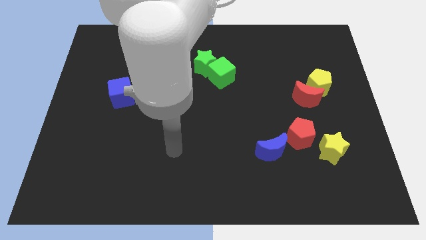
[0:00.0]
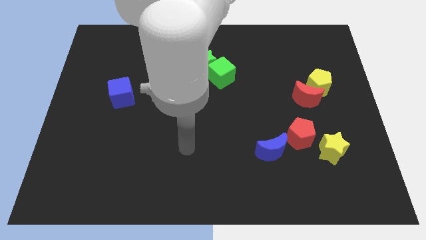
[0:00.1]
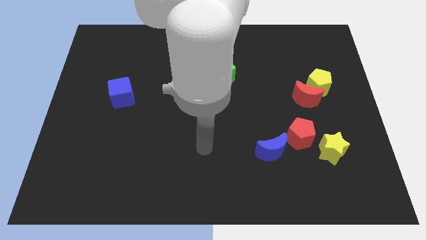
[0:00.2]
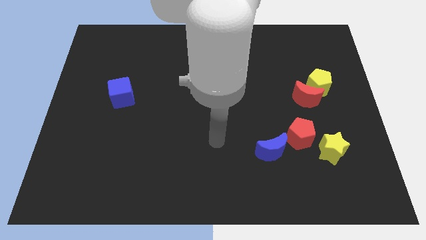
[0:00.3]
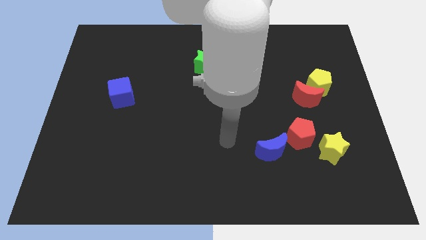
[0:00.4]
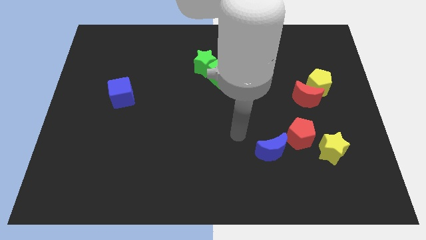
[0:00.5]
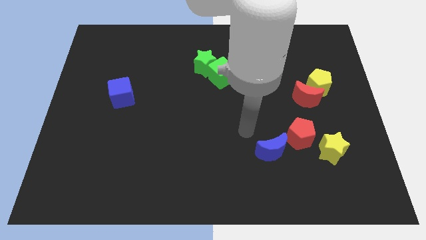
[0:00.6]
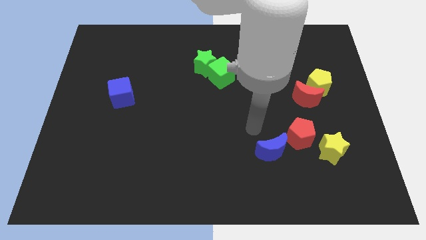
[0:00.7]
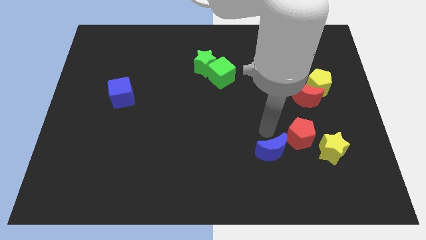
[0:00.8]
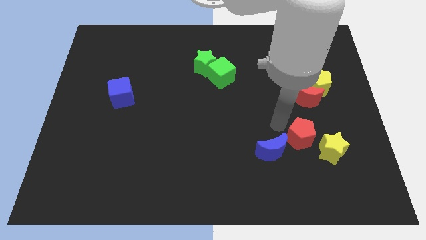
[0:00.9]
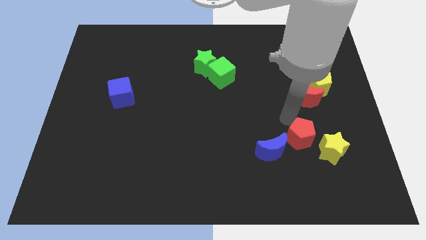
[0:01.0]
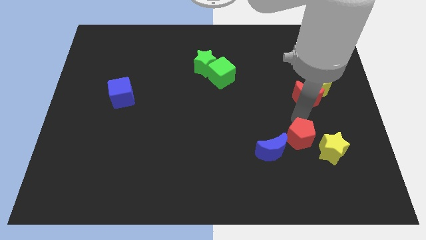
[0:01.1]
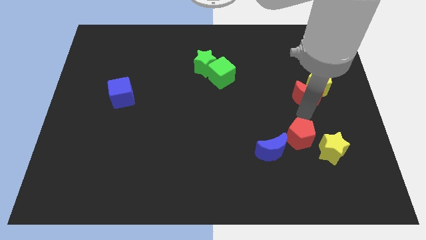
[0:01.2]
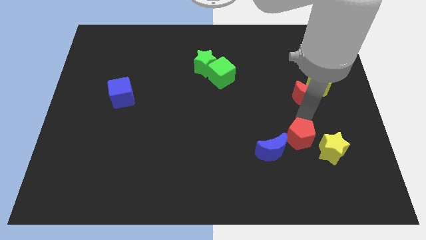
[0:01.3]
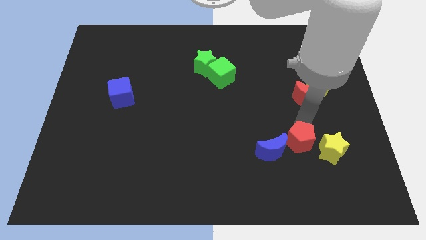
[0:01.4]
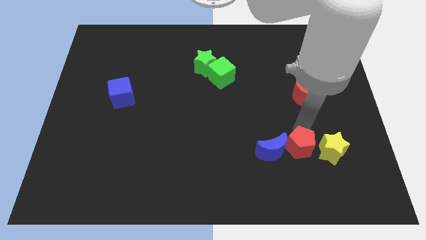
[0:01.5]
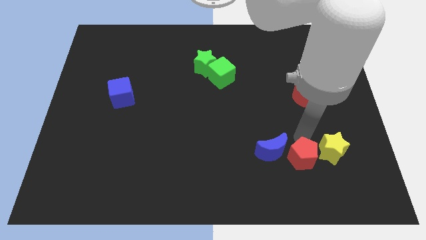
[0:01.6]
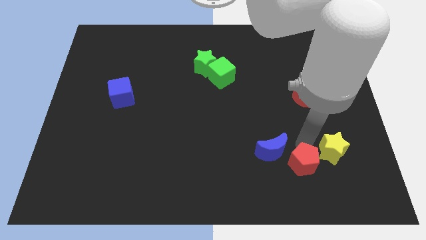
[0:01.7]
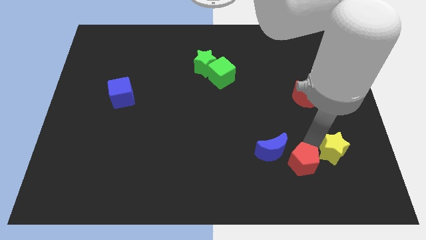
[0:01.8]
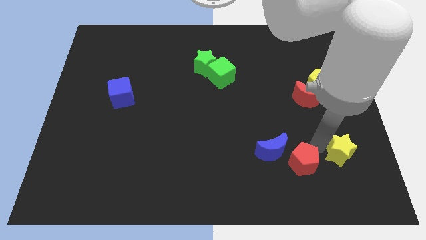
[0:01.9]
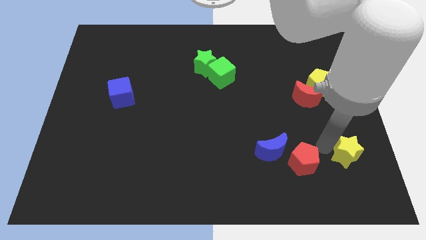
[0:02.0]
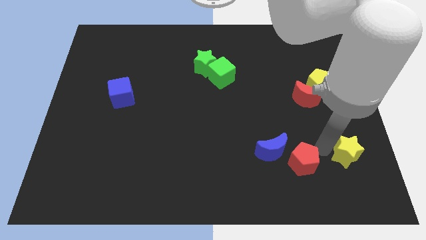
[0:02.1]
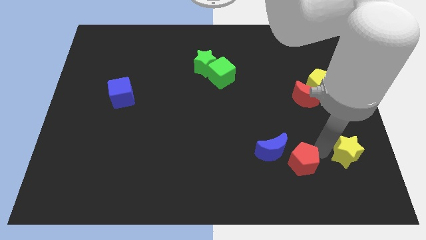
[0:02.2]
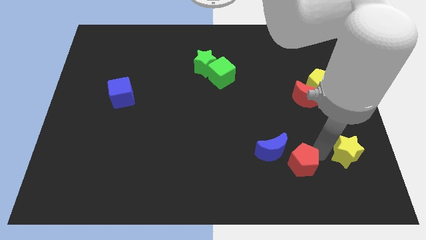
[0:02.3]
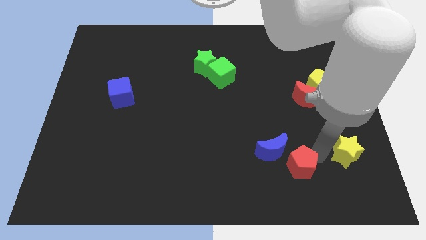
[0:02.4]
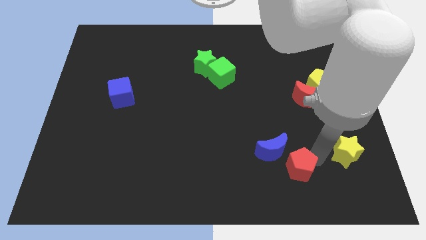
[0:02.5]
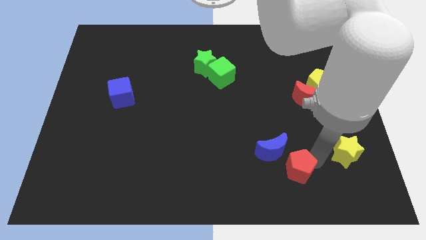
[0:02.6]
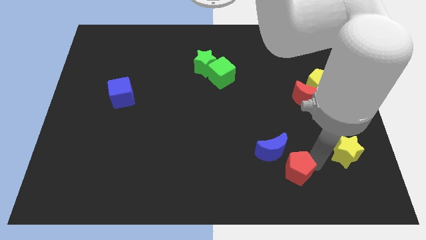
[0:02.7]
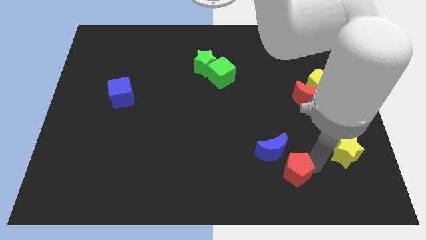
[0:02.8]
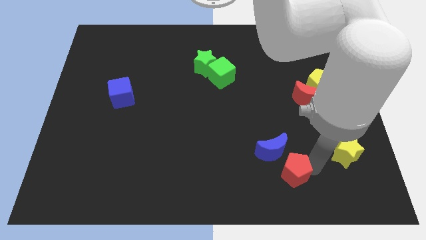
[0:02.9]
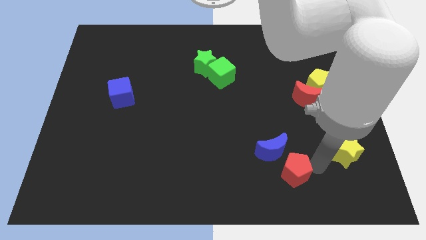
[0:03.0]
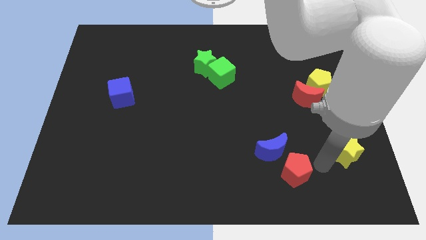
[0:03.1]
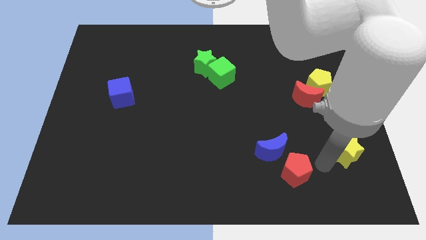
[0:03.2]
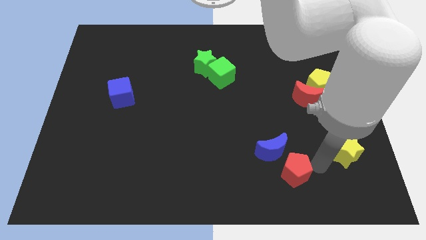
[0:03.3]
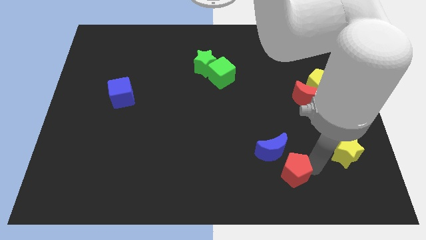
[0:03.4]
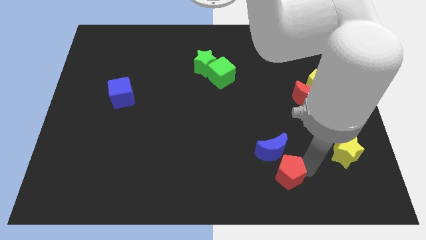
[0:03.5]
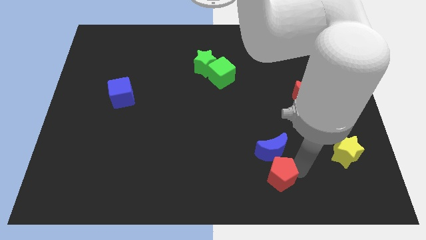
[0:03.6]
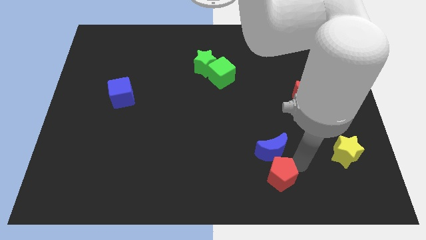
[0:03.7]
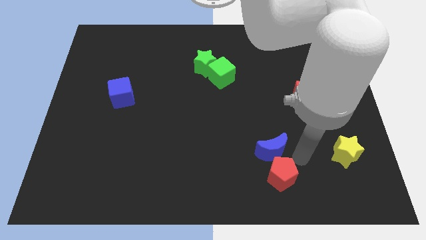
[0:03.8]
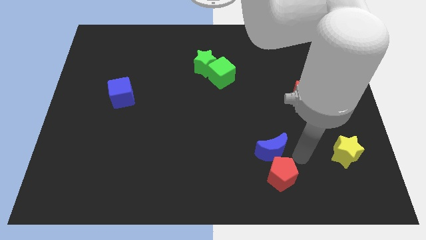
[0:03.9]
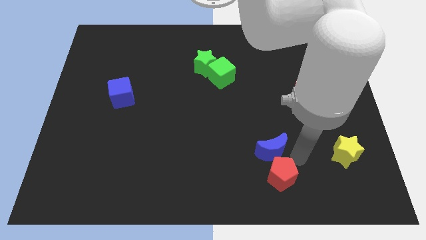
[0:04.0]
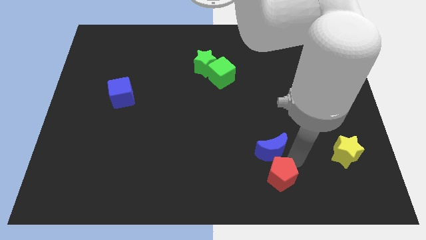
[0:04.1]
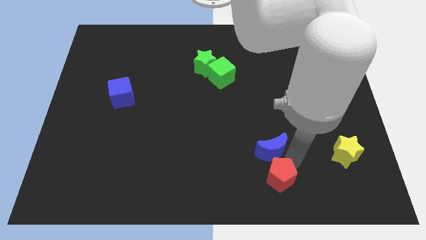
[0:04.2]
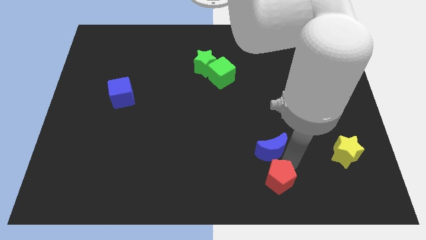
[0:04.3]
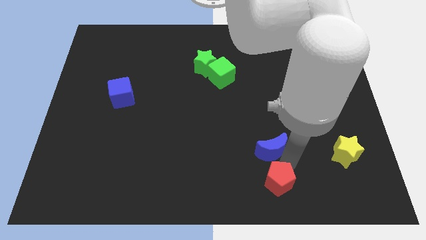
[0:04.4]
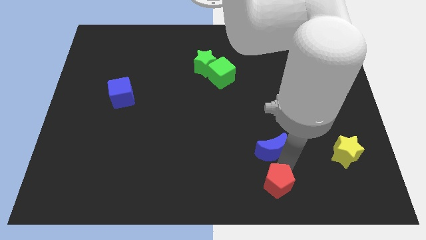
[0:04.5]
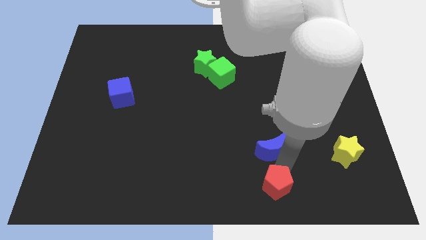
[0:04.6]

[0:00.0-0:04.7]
slide the red pentagon to the bottom

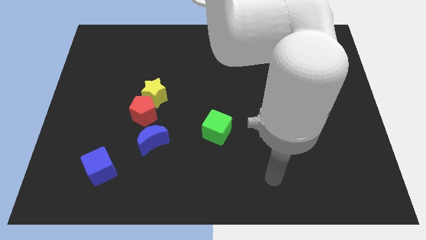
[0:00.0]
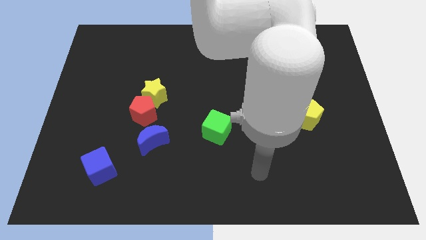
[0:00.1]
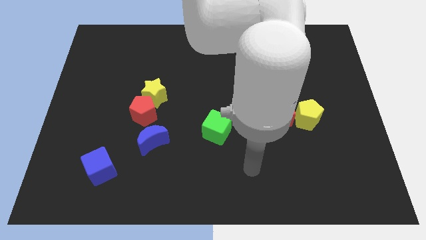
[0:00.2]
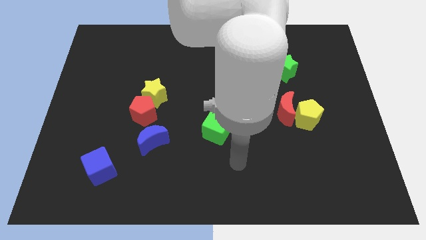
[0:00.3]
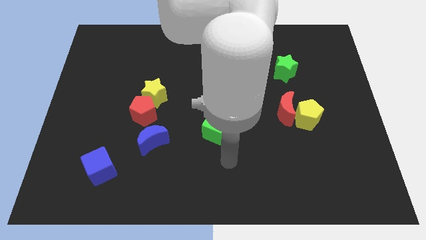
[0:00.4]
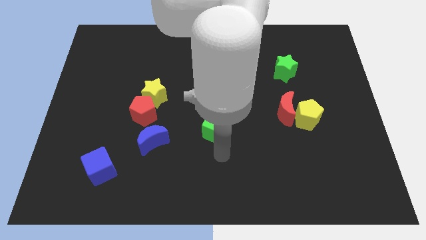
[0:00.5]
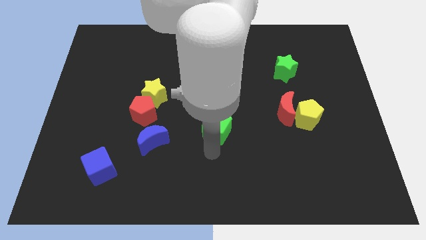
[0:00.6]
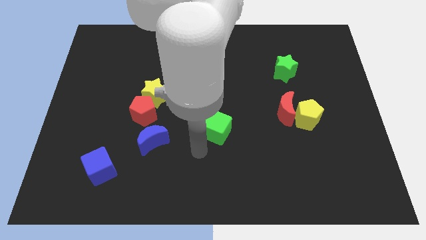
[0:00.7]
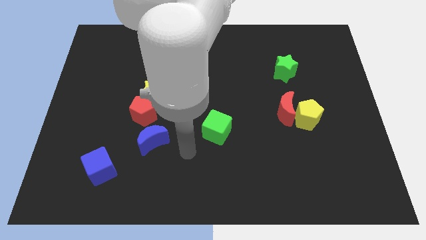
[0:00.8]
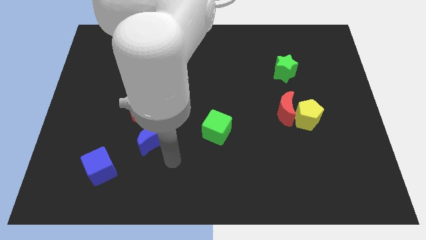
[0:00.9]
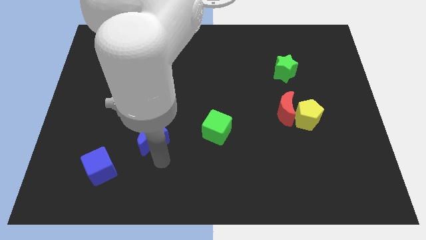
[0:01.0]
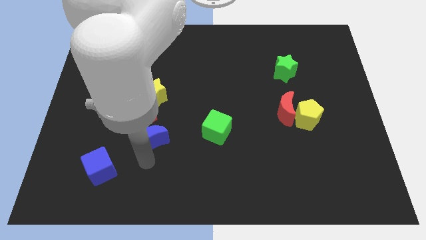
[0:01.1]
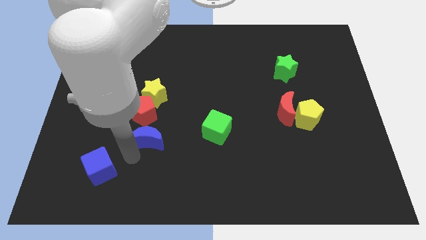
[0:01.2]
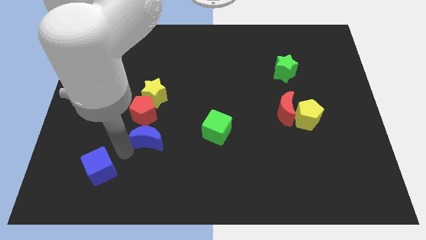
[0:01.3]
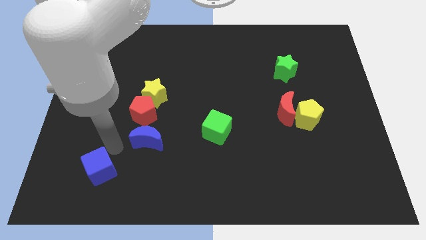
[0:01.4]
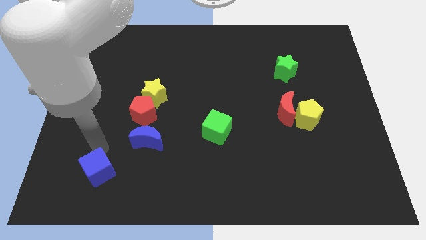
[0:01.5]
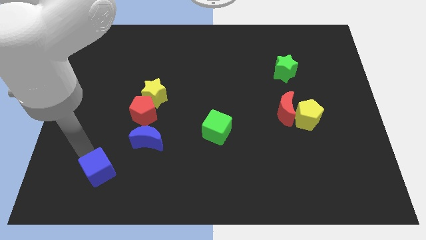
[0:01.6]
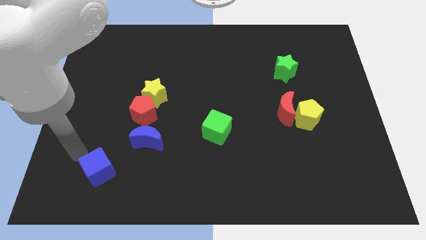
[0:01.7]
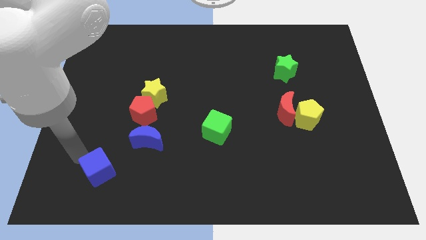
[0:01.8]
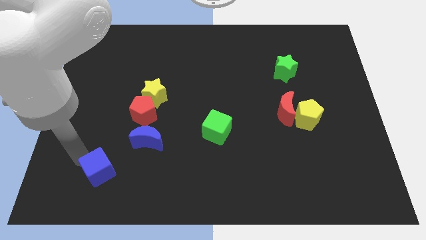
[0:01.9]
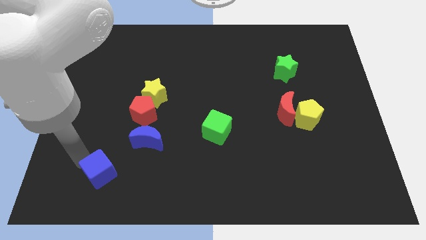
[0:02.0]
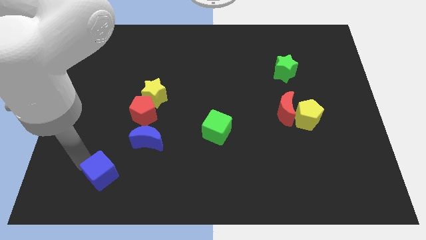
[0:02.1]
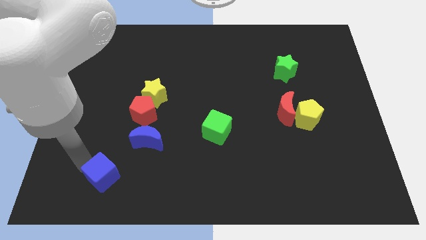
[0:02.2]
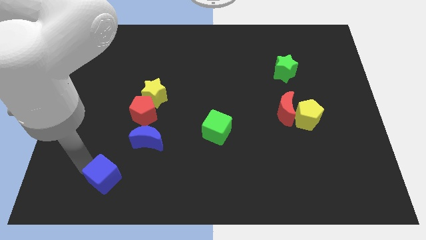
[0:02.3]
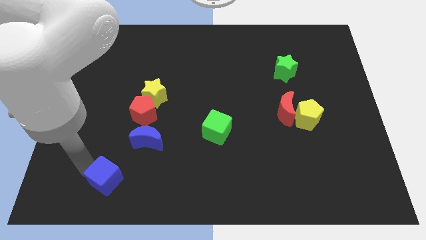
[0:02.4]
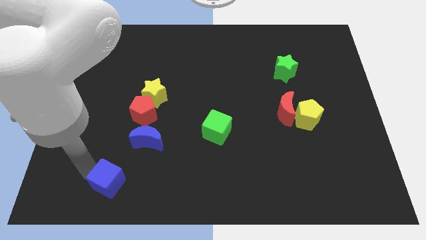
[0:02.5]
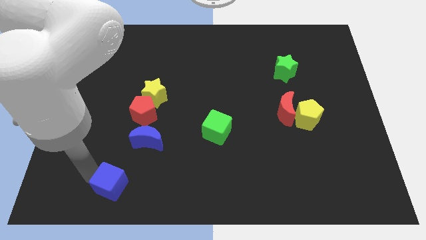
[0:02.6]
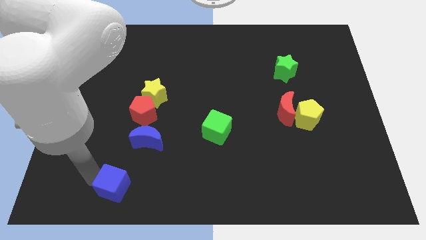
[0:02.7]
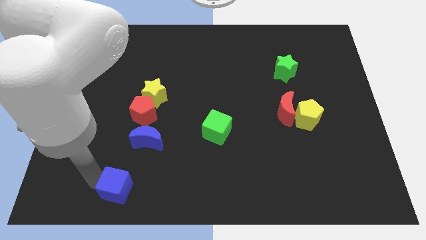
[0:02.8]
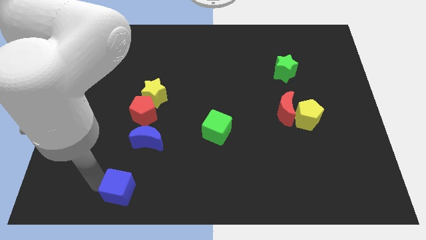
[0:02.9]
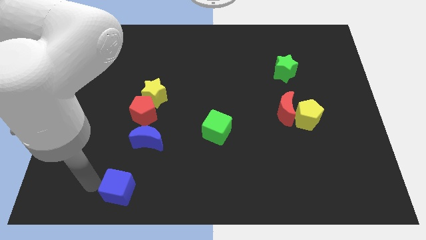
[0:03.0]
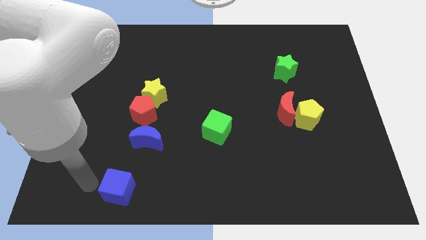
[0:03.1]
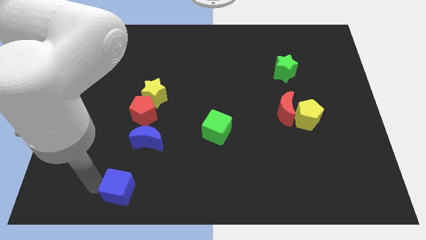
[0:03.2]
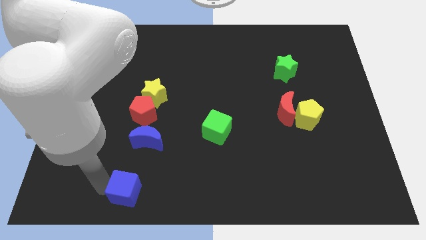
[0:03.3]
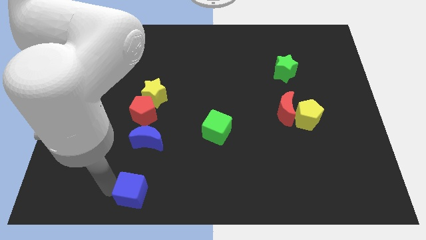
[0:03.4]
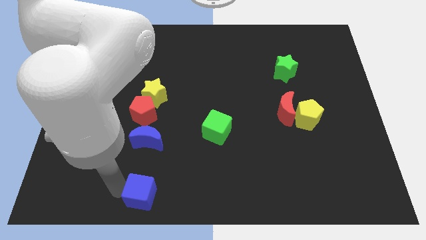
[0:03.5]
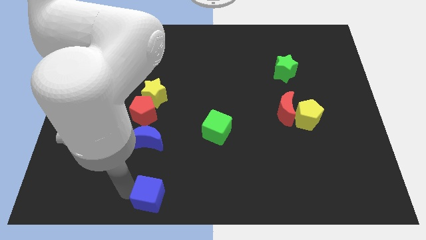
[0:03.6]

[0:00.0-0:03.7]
slide the blue cube to the bottom side
